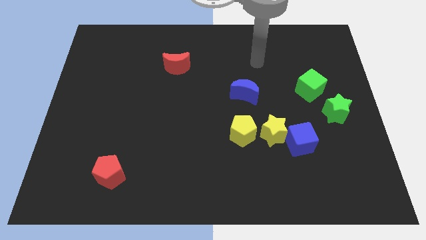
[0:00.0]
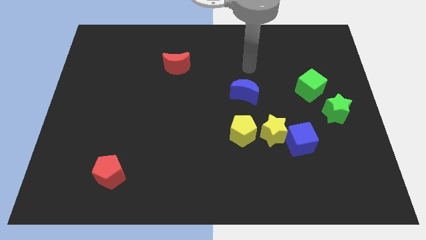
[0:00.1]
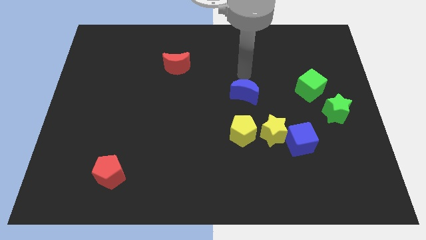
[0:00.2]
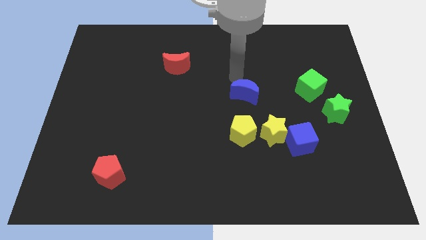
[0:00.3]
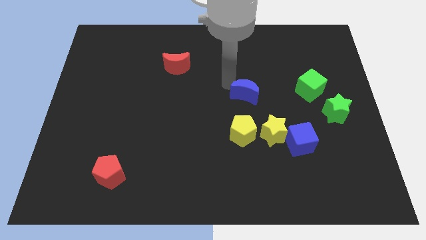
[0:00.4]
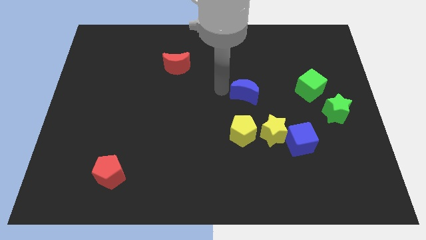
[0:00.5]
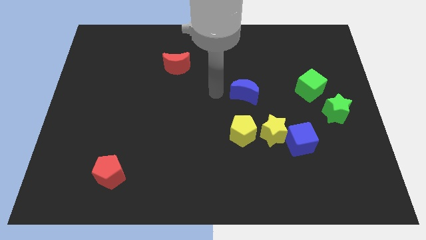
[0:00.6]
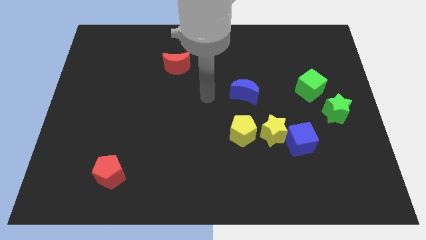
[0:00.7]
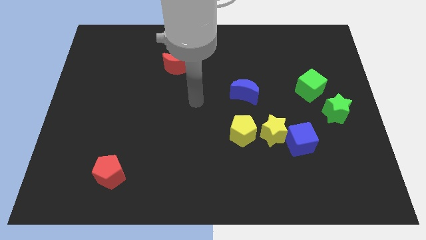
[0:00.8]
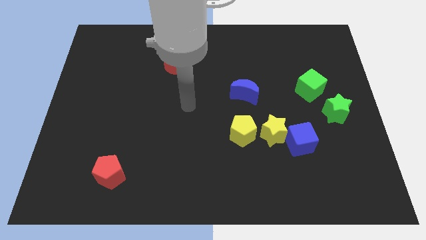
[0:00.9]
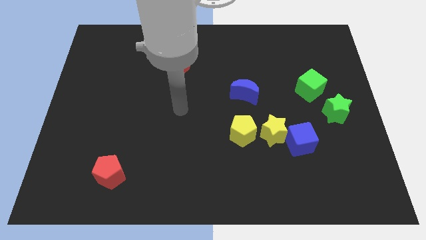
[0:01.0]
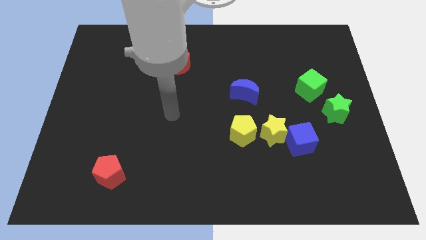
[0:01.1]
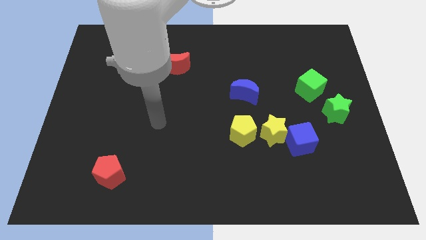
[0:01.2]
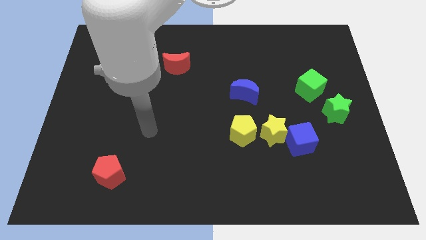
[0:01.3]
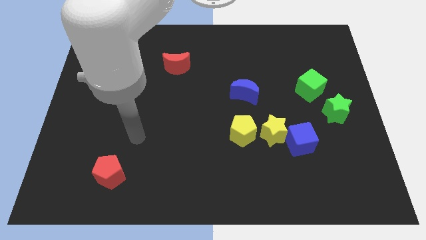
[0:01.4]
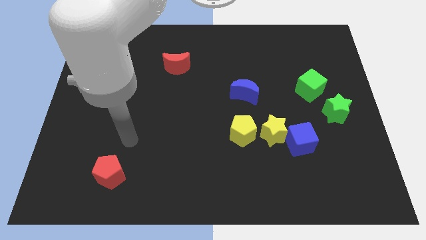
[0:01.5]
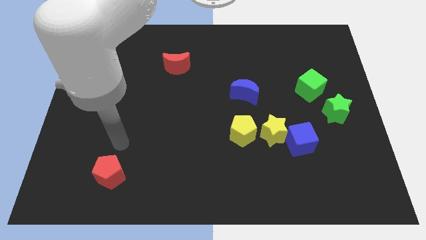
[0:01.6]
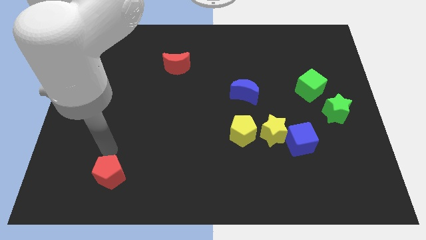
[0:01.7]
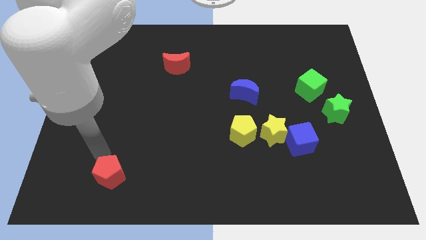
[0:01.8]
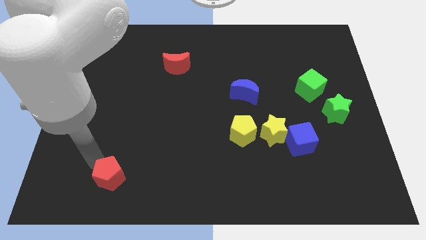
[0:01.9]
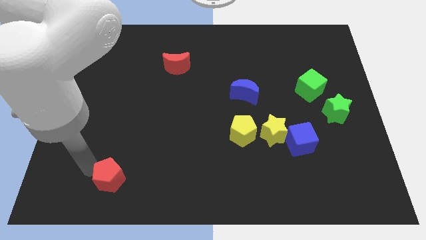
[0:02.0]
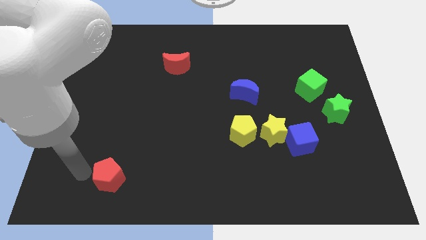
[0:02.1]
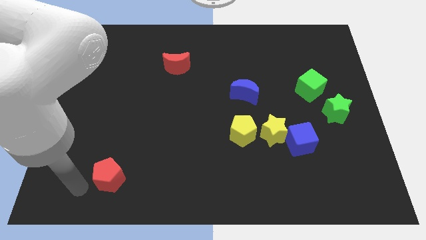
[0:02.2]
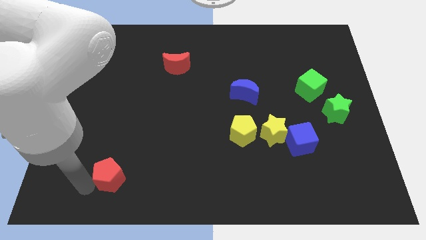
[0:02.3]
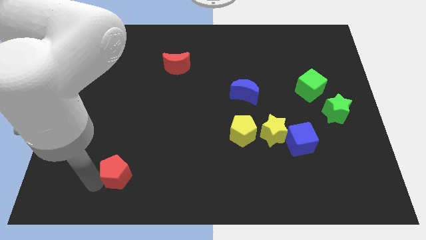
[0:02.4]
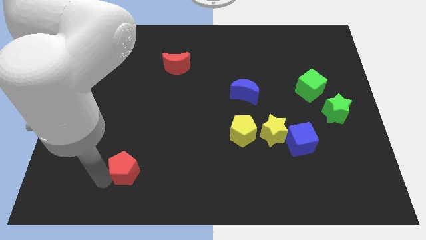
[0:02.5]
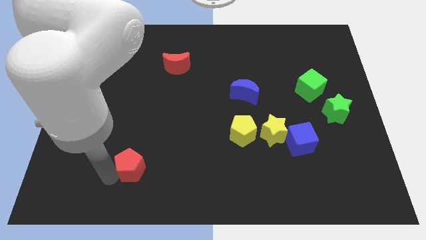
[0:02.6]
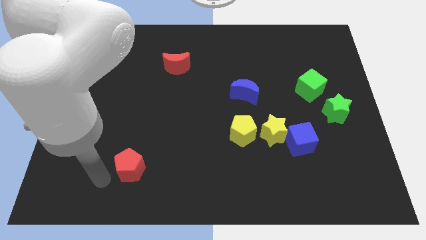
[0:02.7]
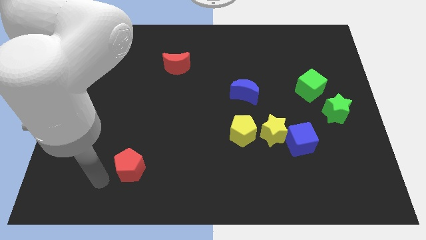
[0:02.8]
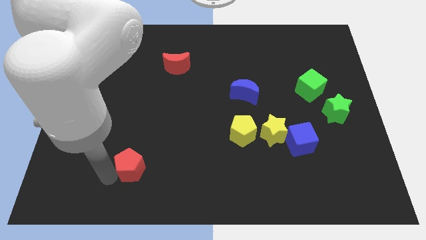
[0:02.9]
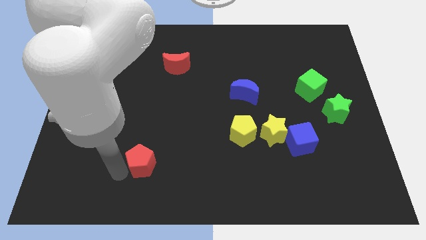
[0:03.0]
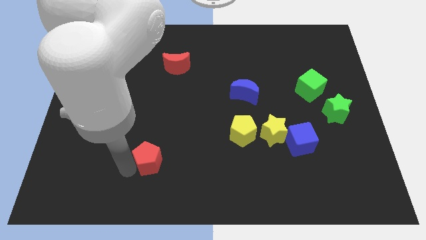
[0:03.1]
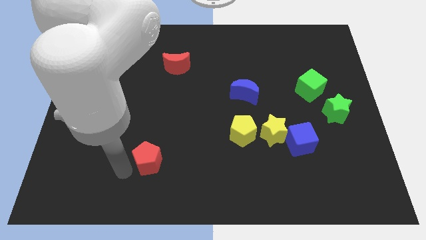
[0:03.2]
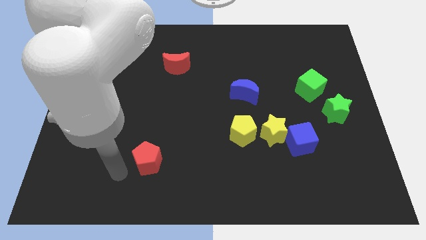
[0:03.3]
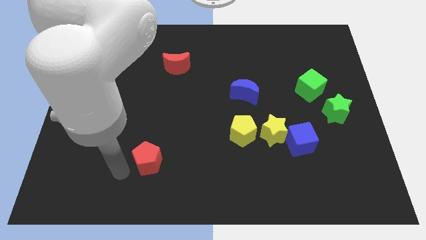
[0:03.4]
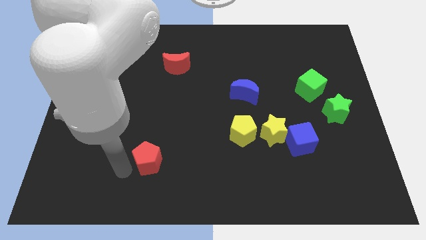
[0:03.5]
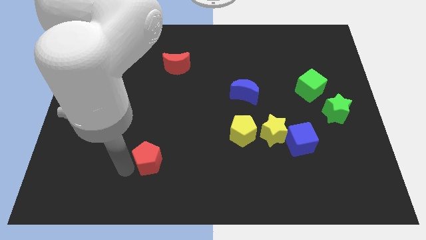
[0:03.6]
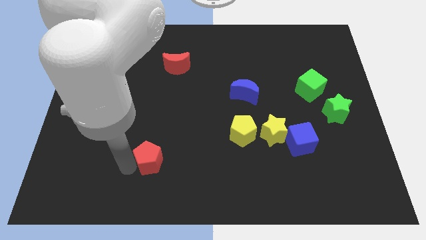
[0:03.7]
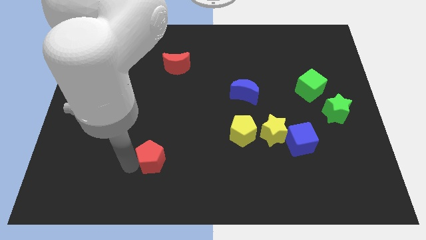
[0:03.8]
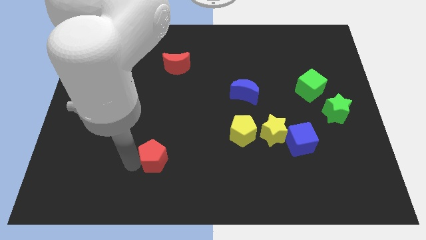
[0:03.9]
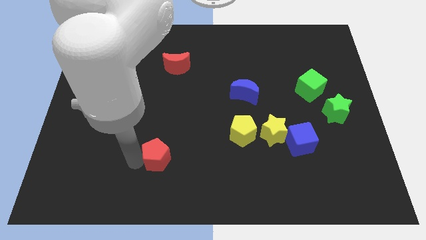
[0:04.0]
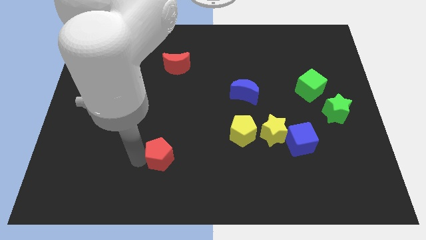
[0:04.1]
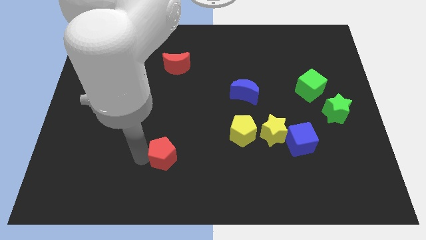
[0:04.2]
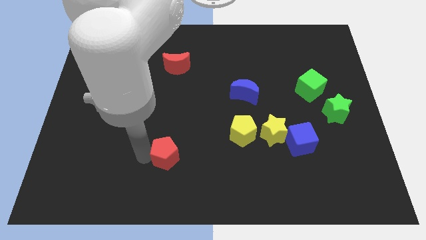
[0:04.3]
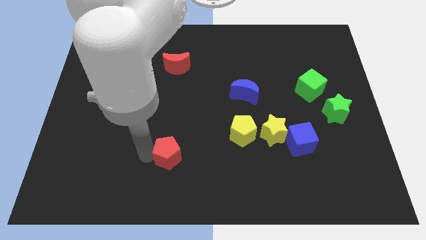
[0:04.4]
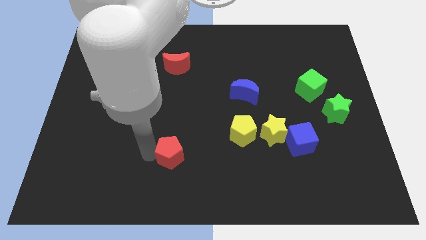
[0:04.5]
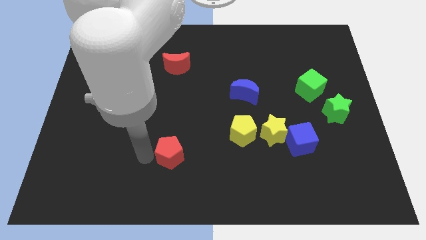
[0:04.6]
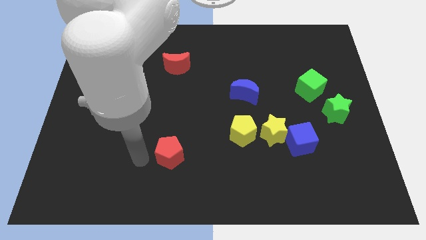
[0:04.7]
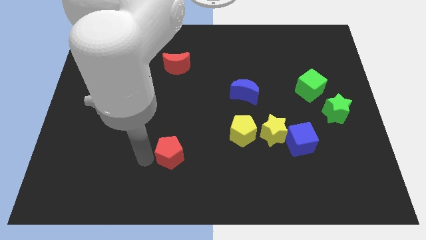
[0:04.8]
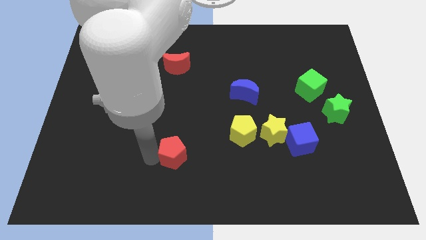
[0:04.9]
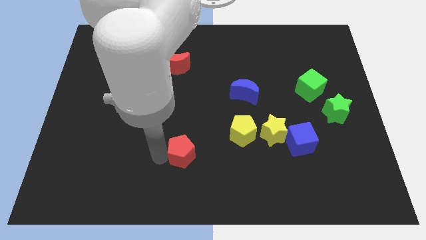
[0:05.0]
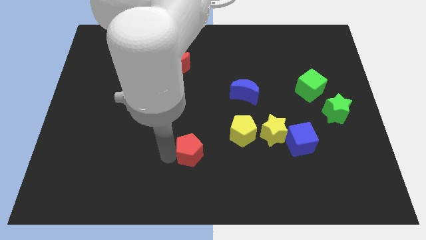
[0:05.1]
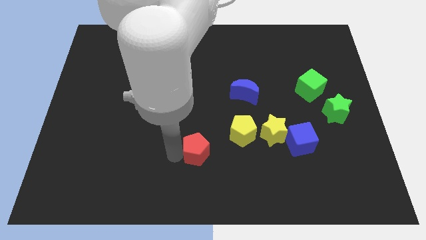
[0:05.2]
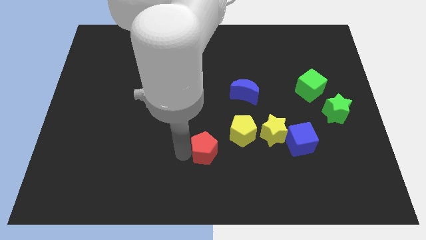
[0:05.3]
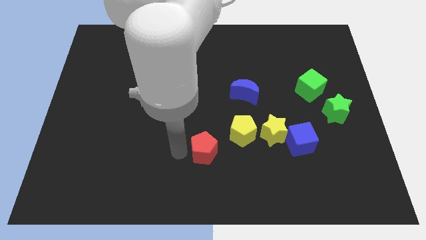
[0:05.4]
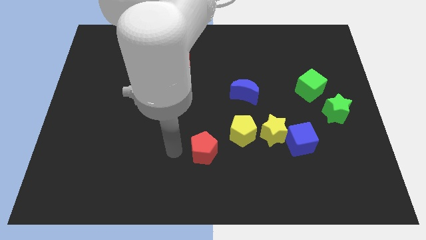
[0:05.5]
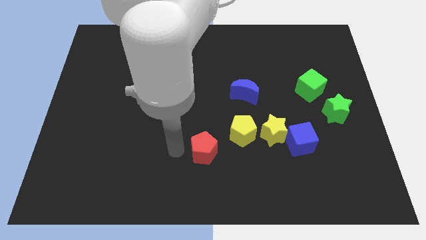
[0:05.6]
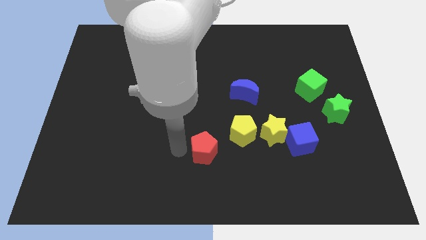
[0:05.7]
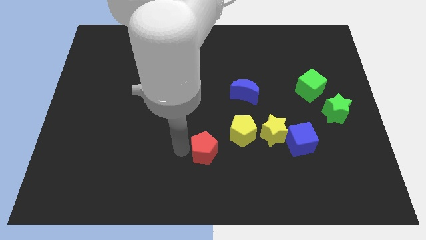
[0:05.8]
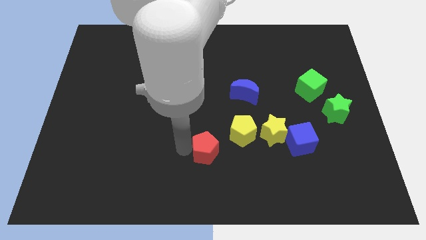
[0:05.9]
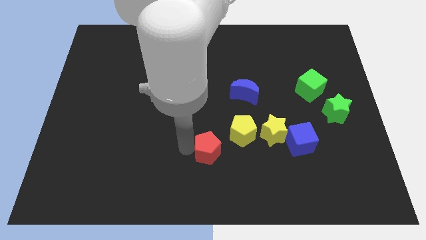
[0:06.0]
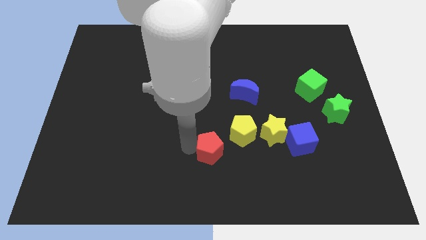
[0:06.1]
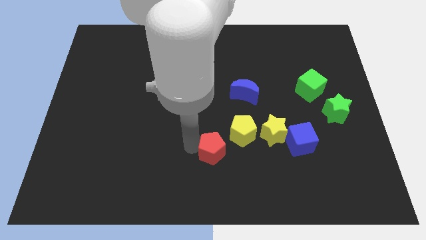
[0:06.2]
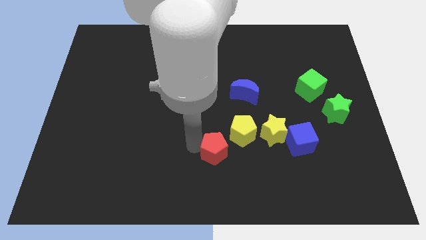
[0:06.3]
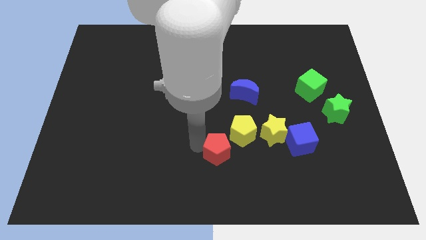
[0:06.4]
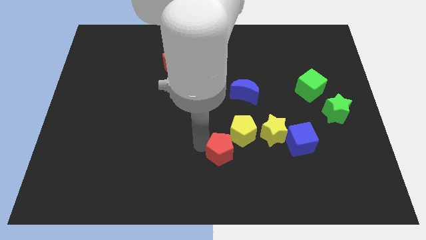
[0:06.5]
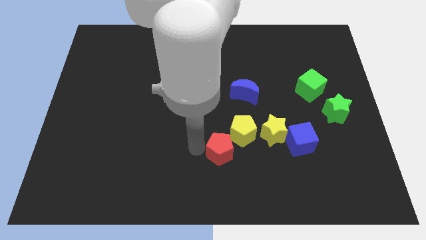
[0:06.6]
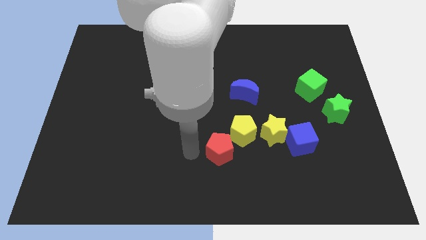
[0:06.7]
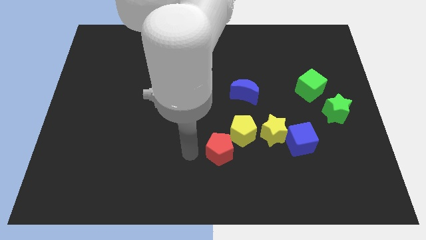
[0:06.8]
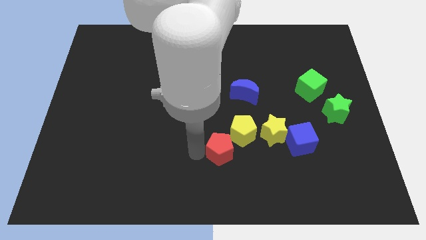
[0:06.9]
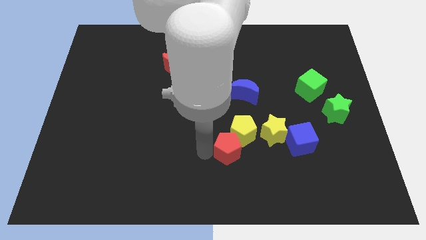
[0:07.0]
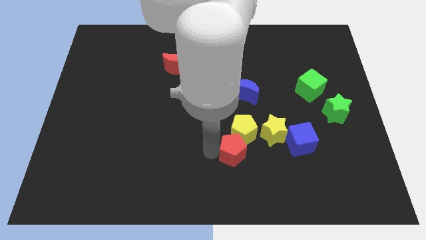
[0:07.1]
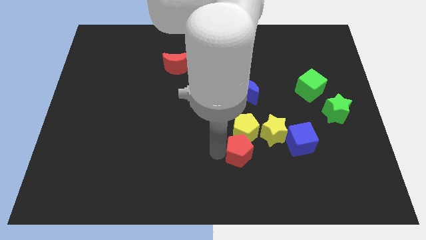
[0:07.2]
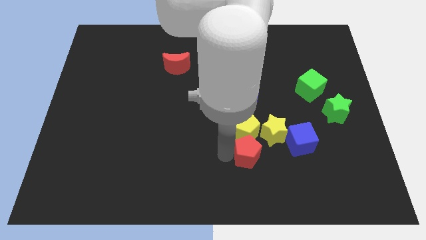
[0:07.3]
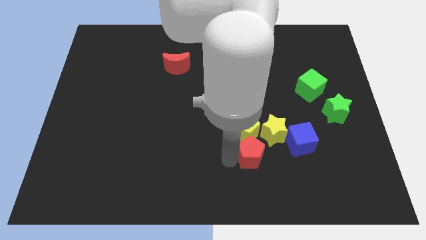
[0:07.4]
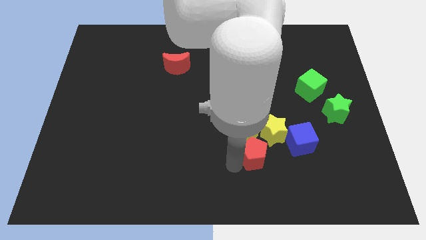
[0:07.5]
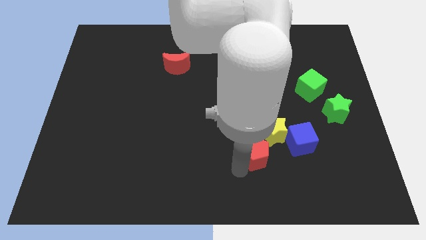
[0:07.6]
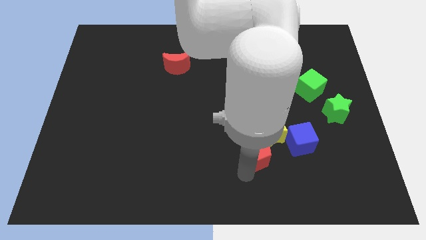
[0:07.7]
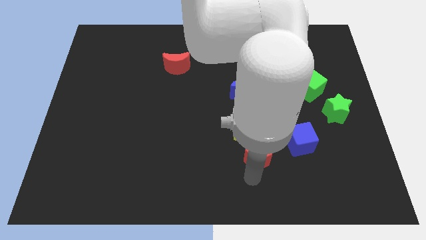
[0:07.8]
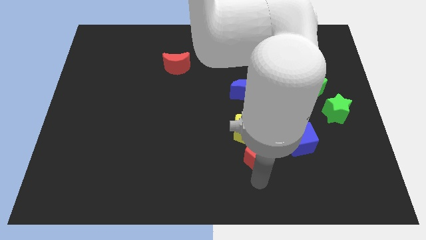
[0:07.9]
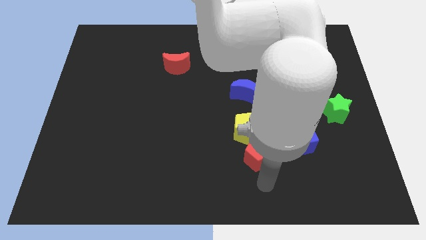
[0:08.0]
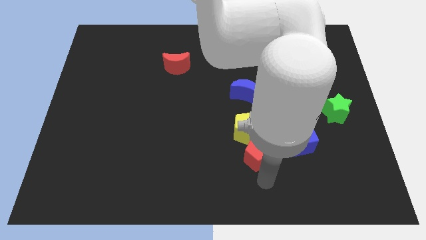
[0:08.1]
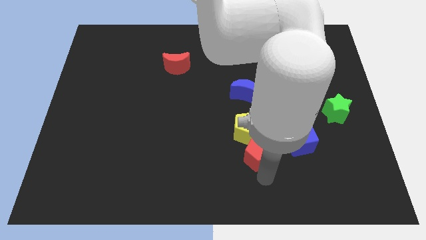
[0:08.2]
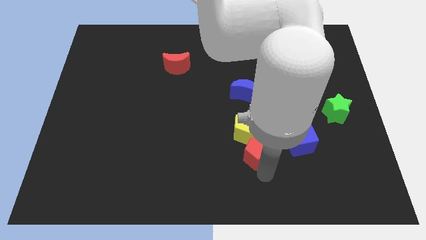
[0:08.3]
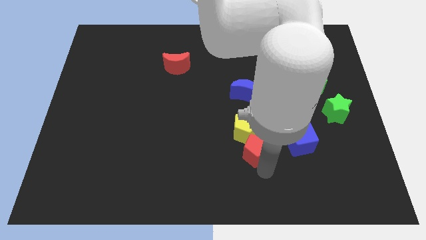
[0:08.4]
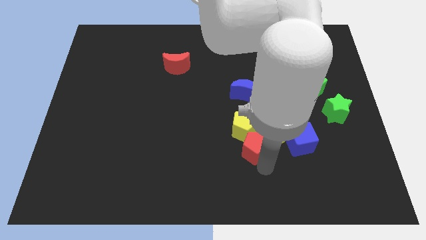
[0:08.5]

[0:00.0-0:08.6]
move the red pentagon to the bottom of the blue moon
